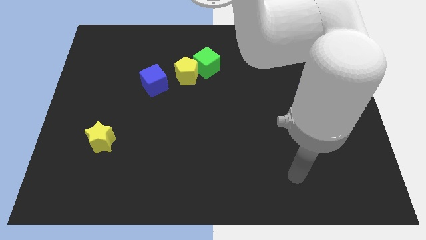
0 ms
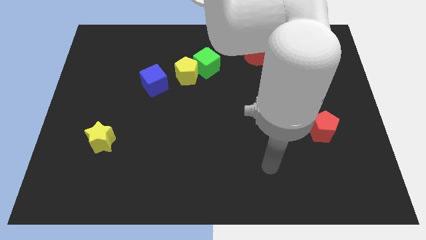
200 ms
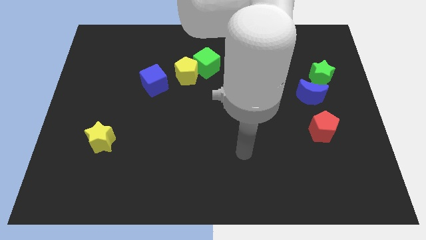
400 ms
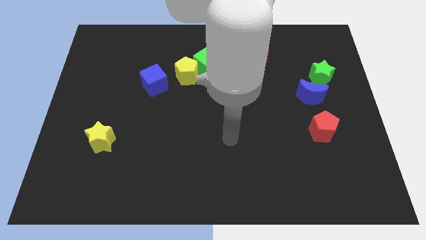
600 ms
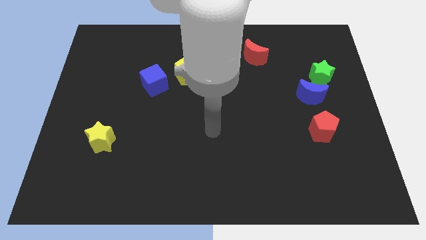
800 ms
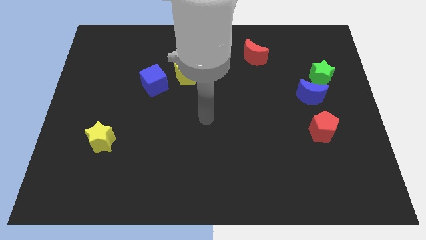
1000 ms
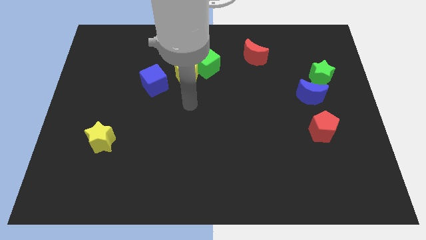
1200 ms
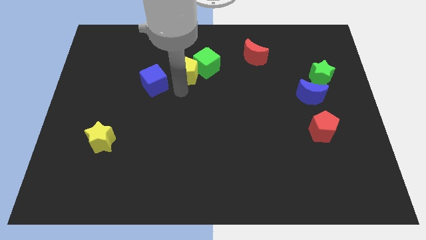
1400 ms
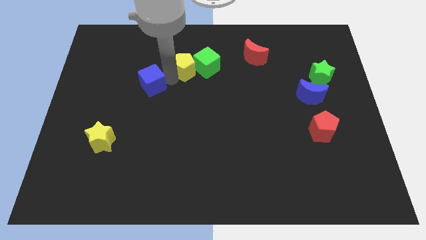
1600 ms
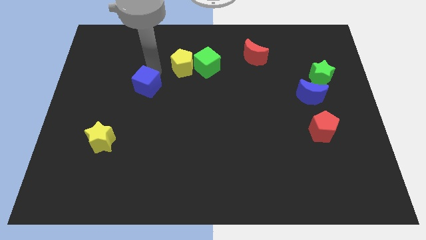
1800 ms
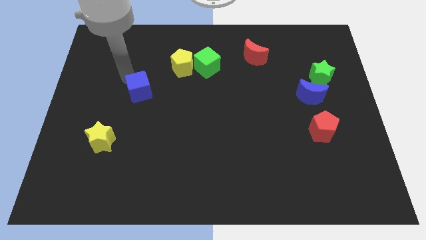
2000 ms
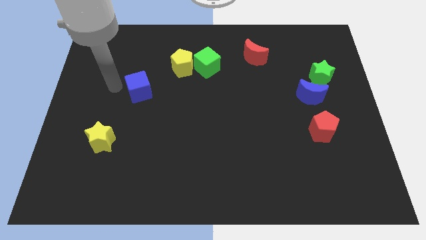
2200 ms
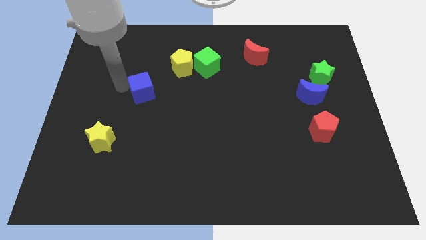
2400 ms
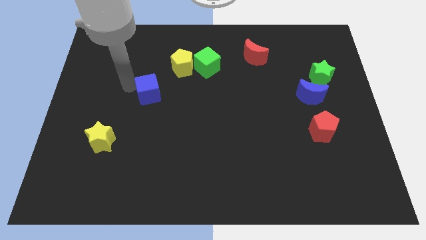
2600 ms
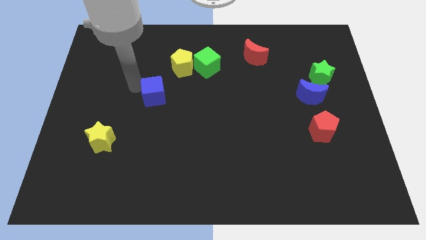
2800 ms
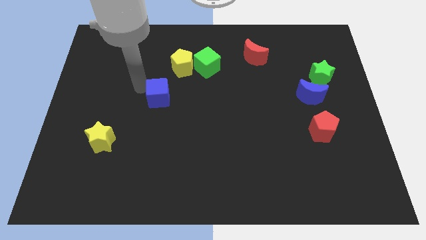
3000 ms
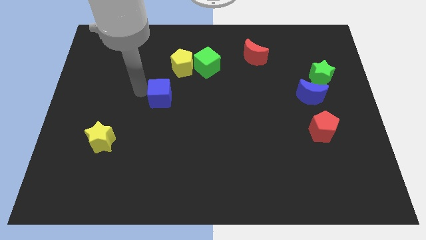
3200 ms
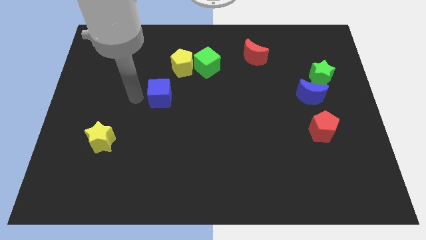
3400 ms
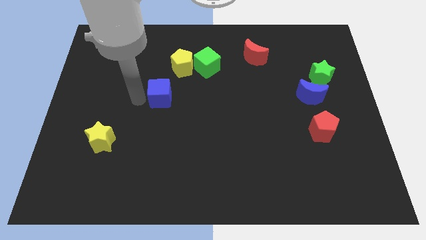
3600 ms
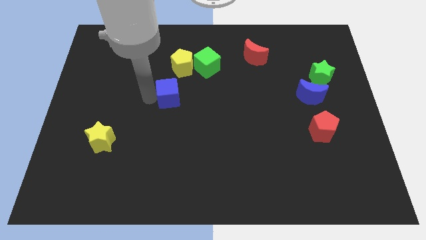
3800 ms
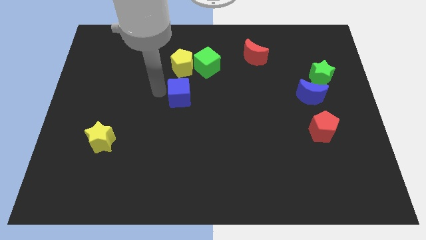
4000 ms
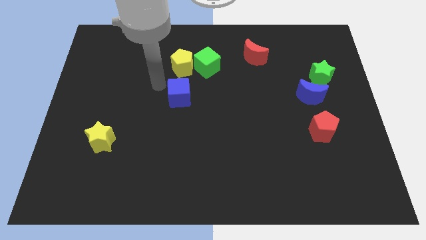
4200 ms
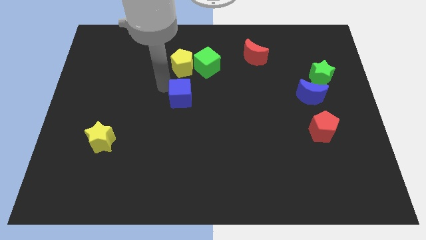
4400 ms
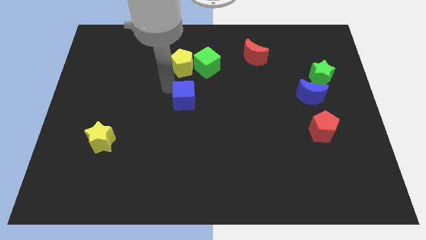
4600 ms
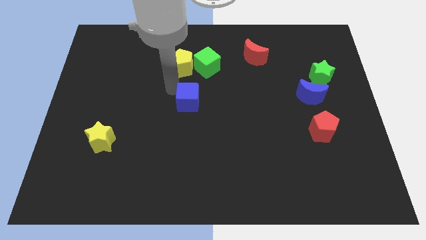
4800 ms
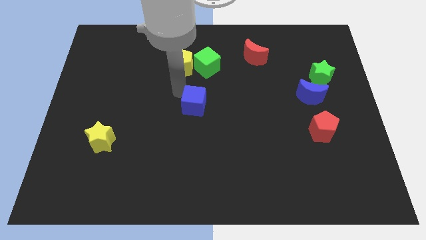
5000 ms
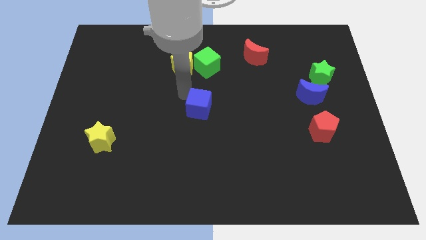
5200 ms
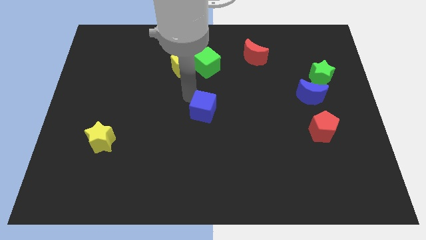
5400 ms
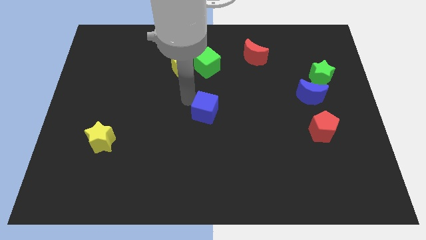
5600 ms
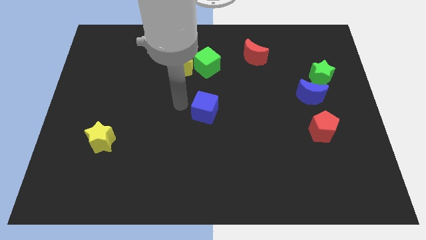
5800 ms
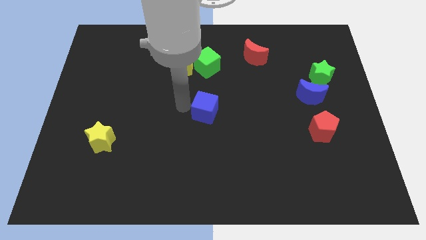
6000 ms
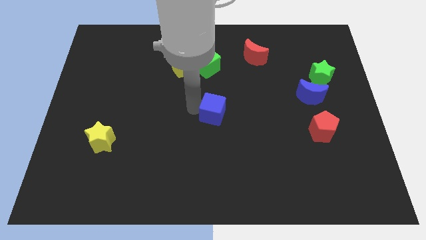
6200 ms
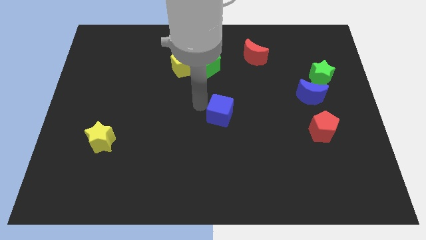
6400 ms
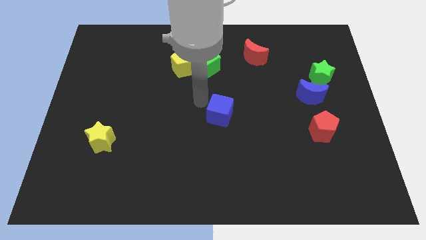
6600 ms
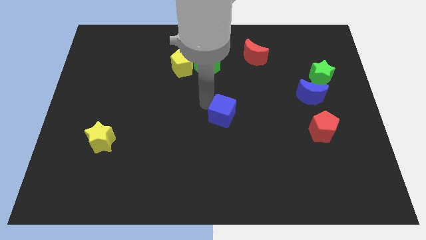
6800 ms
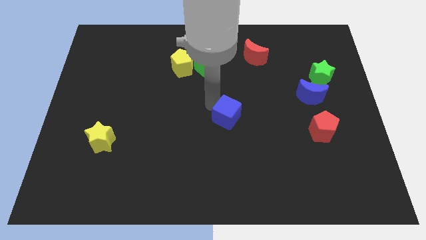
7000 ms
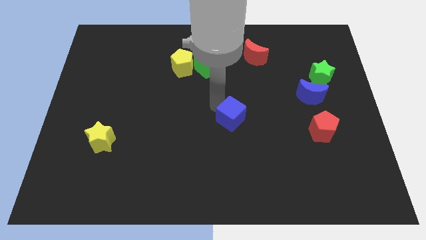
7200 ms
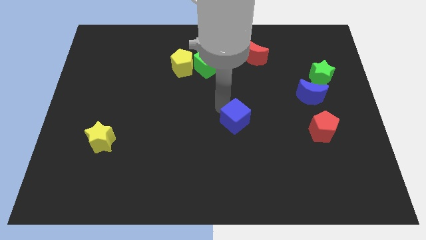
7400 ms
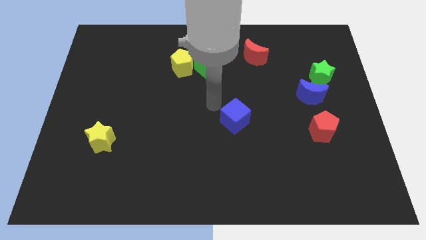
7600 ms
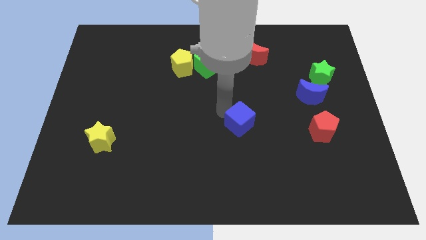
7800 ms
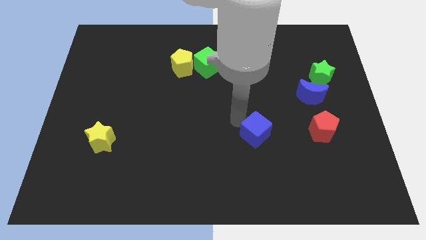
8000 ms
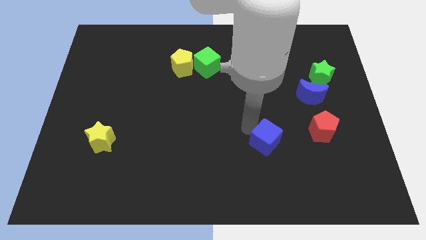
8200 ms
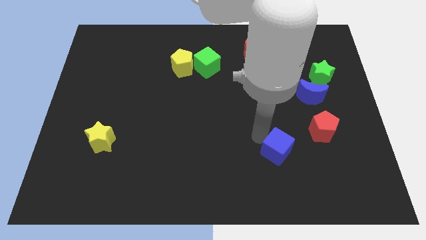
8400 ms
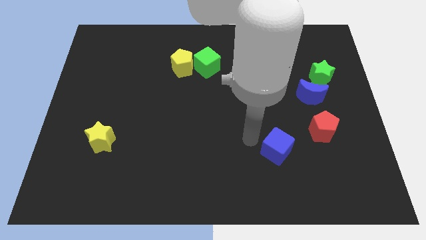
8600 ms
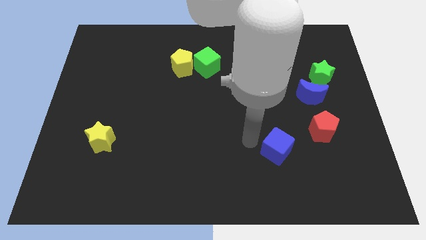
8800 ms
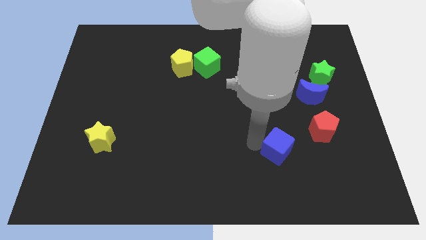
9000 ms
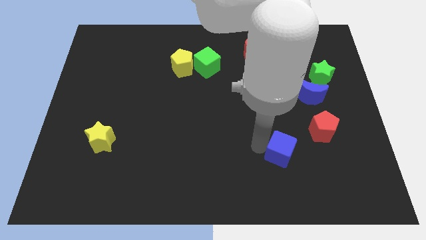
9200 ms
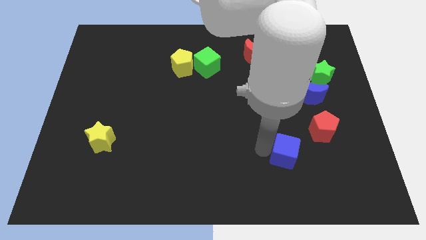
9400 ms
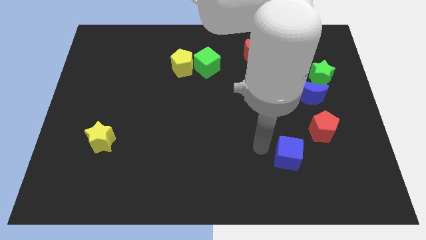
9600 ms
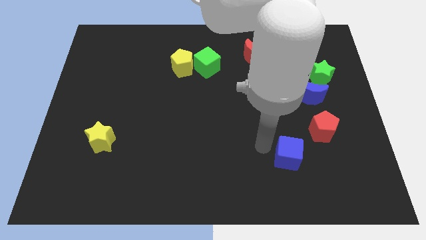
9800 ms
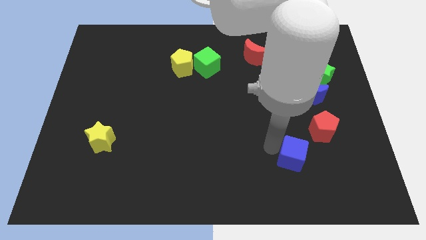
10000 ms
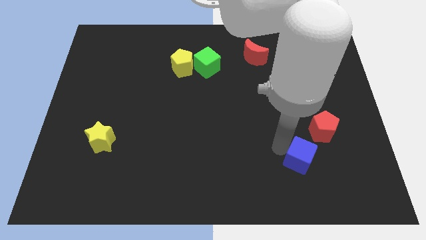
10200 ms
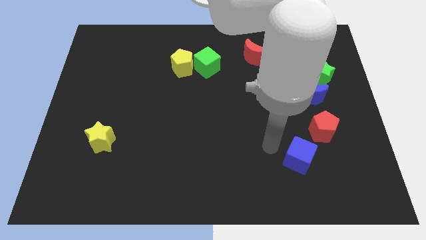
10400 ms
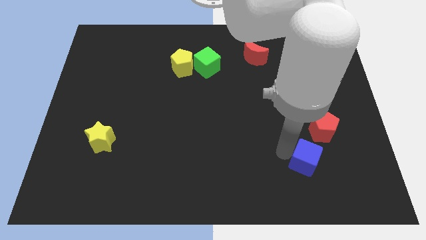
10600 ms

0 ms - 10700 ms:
move the blue cube to the bottom of the red pentagon

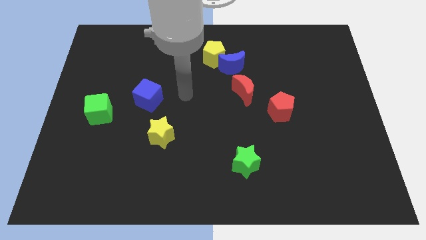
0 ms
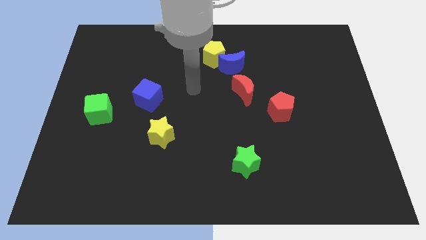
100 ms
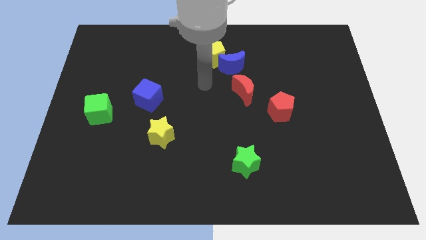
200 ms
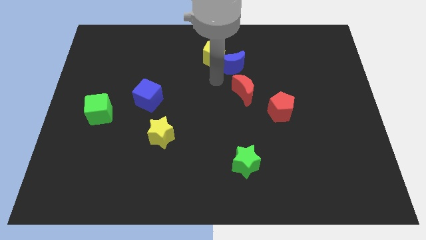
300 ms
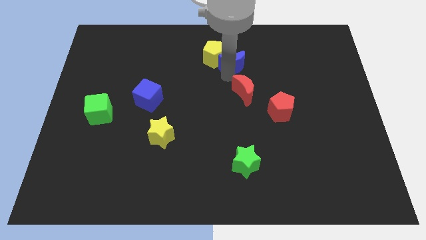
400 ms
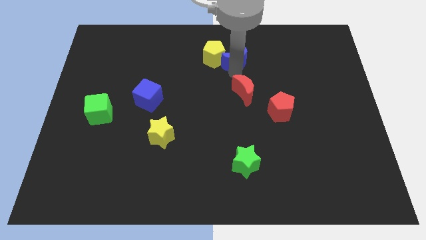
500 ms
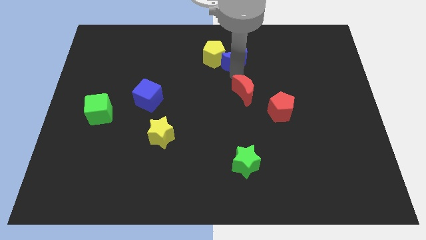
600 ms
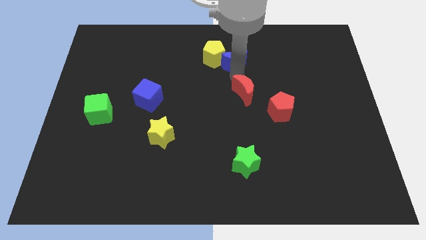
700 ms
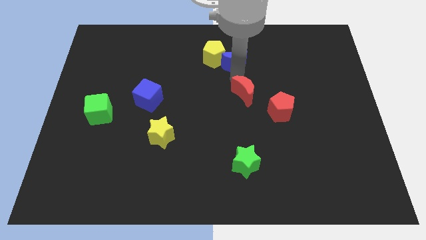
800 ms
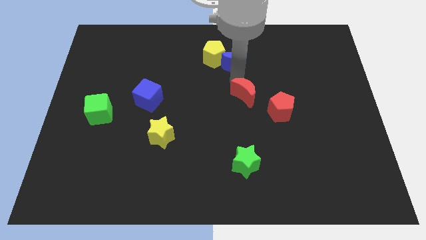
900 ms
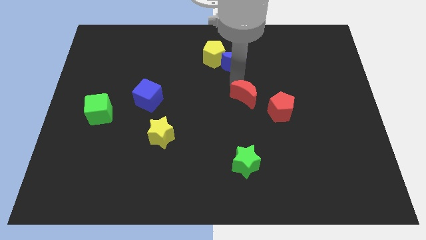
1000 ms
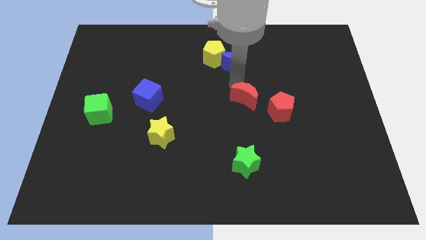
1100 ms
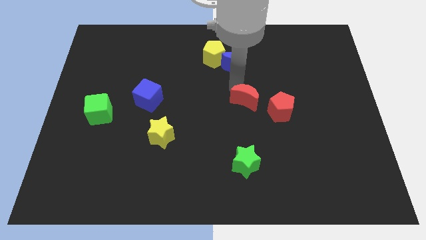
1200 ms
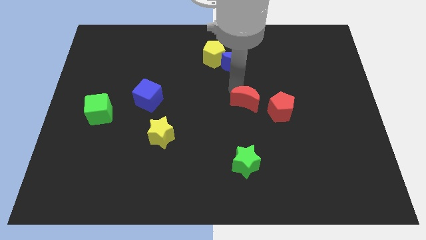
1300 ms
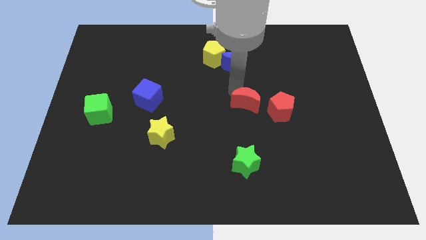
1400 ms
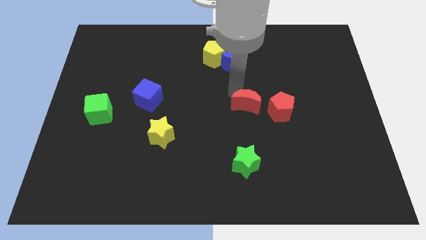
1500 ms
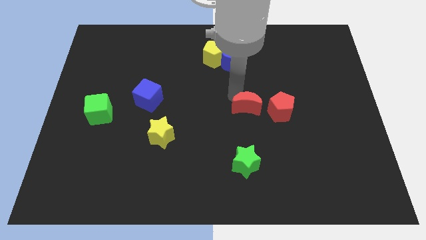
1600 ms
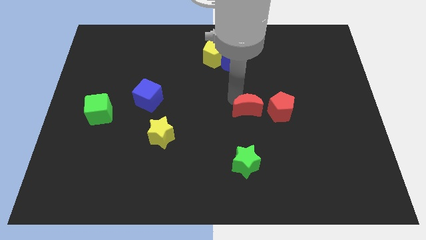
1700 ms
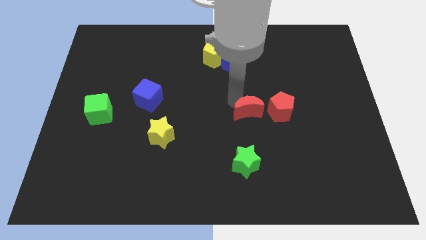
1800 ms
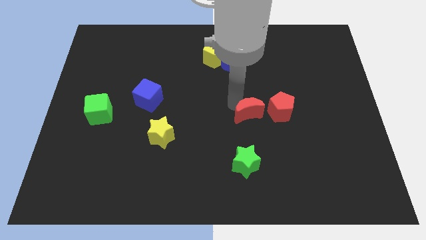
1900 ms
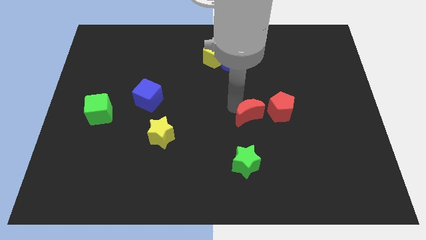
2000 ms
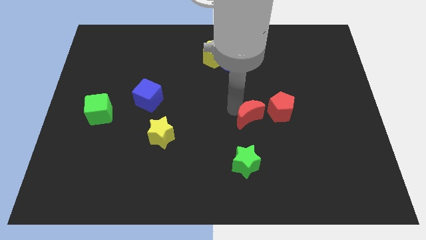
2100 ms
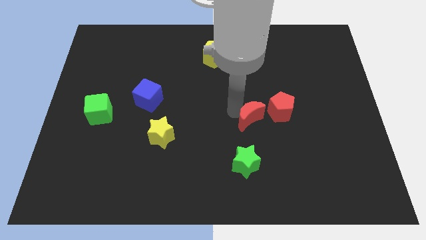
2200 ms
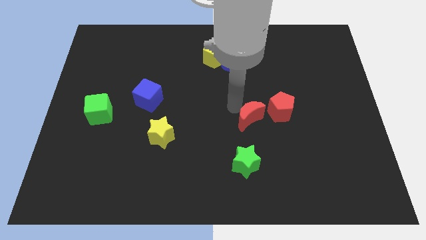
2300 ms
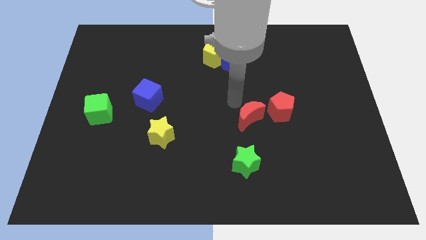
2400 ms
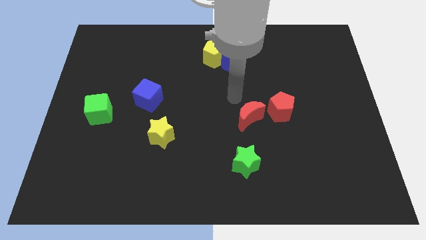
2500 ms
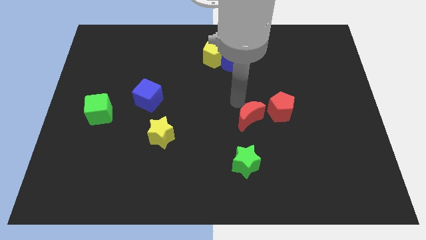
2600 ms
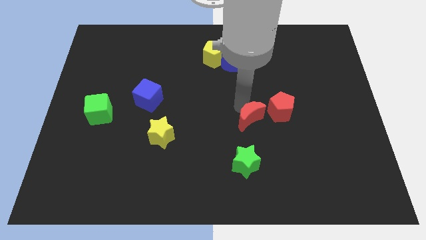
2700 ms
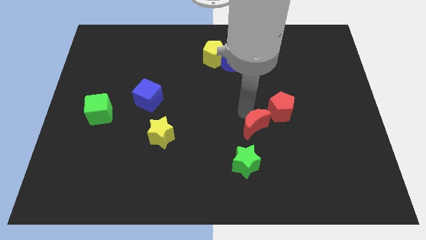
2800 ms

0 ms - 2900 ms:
put the red moon to the top right side of the green star
